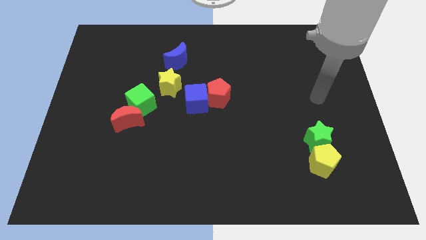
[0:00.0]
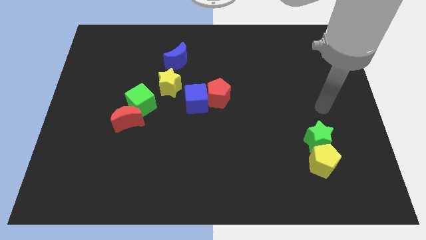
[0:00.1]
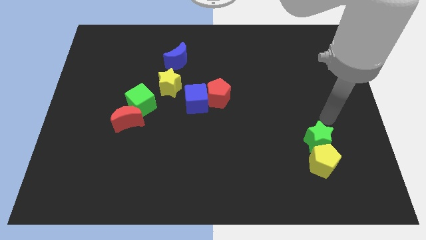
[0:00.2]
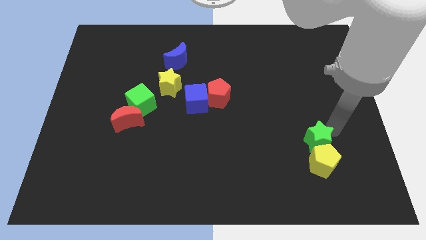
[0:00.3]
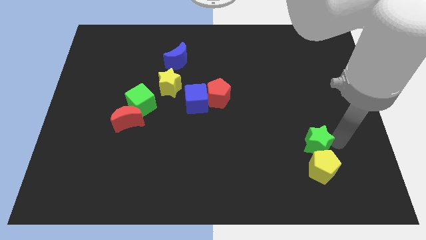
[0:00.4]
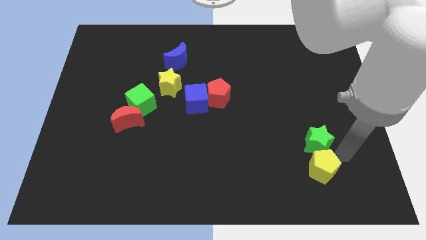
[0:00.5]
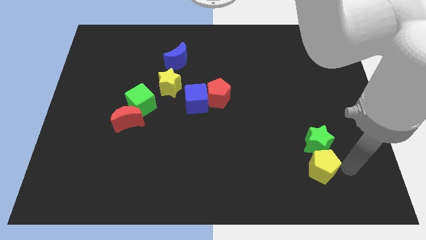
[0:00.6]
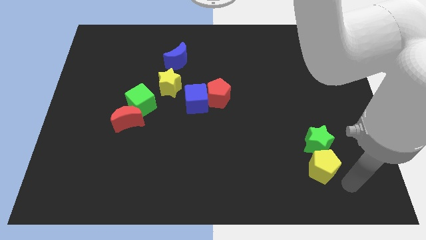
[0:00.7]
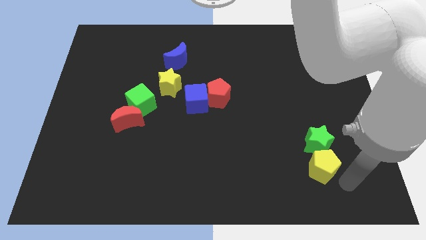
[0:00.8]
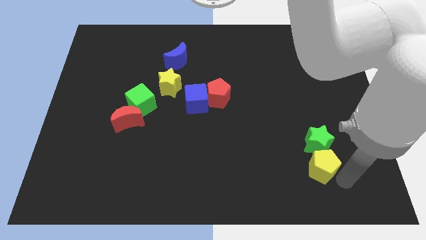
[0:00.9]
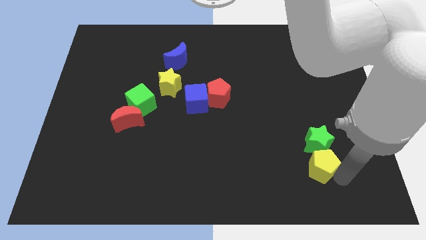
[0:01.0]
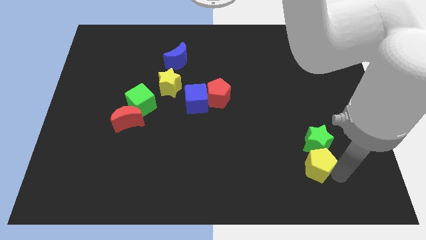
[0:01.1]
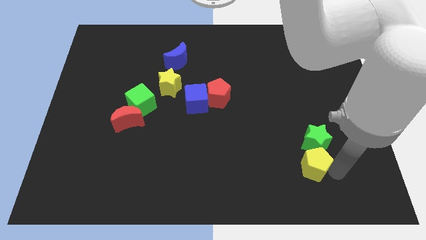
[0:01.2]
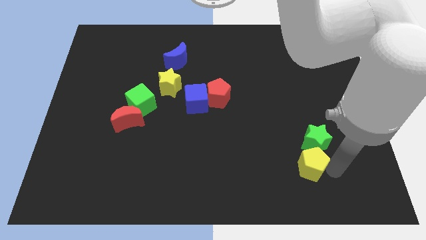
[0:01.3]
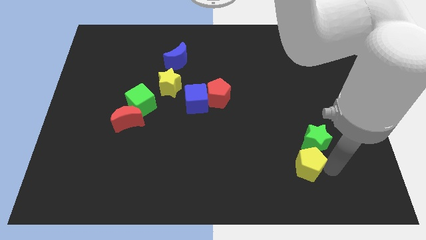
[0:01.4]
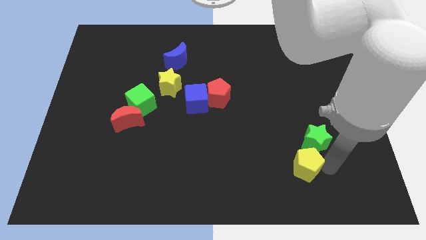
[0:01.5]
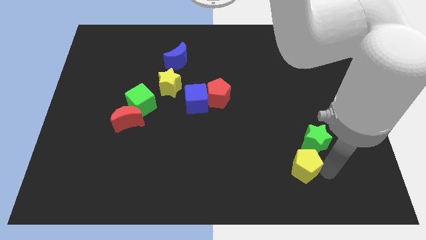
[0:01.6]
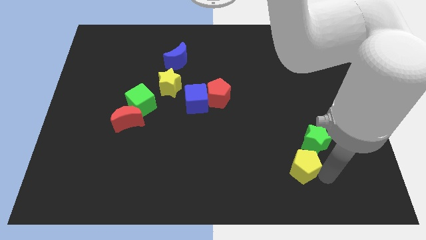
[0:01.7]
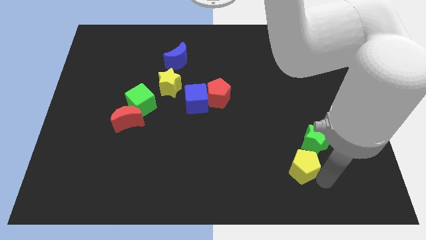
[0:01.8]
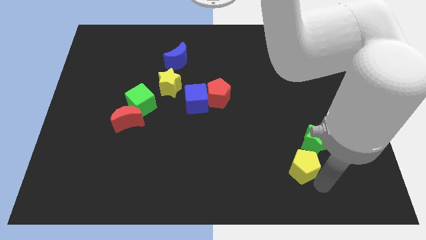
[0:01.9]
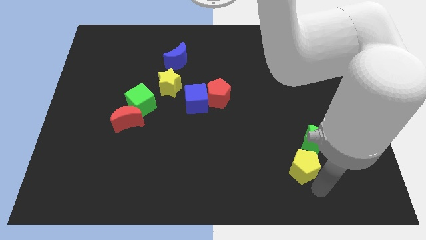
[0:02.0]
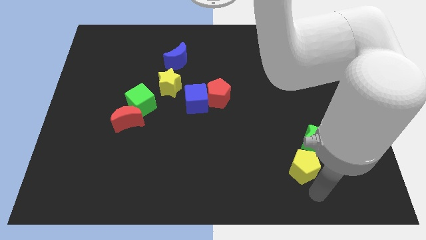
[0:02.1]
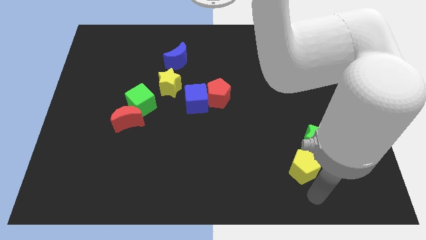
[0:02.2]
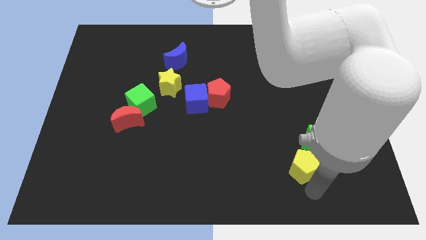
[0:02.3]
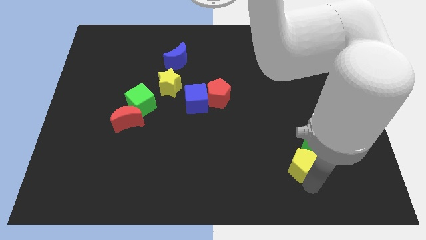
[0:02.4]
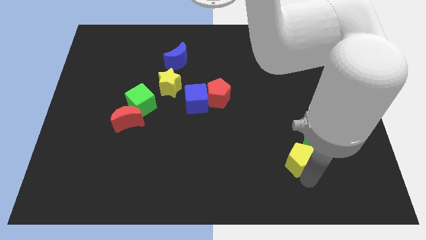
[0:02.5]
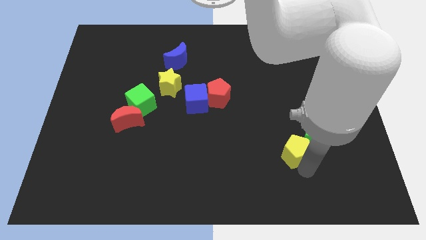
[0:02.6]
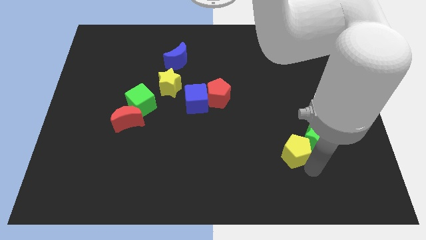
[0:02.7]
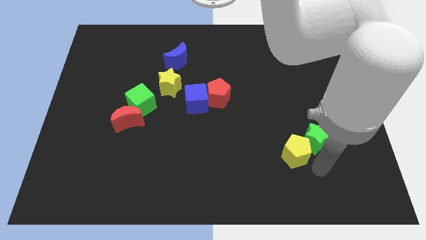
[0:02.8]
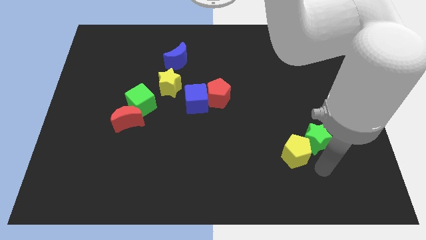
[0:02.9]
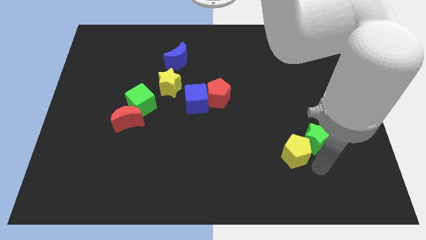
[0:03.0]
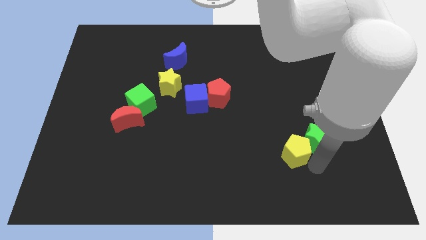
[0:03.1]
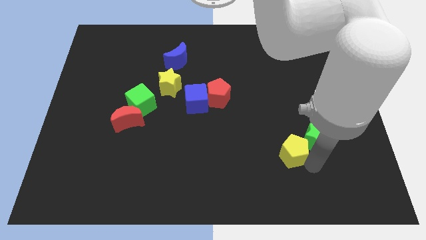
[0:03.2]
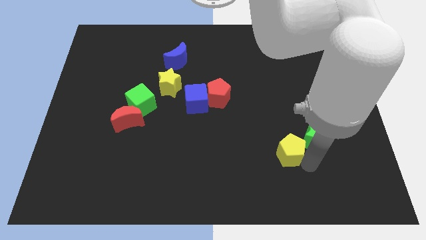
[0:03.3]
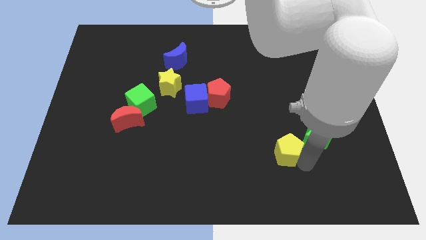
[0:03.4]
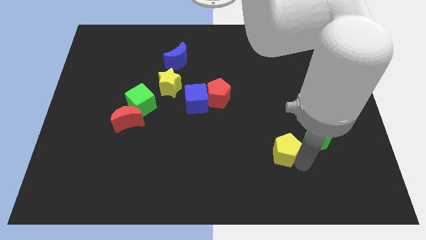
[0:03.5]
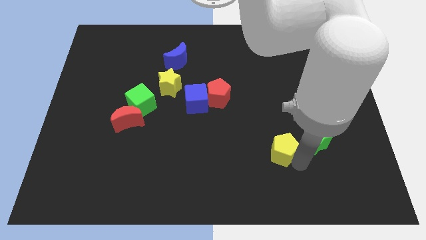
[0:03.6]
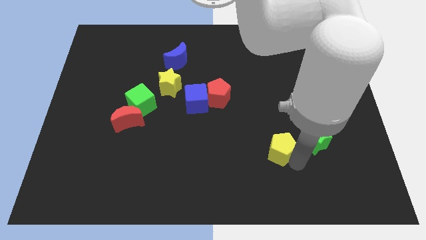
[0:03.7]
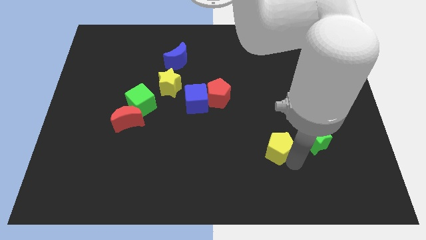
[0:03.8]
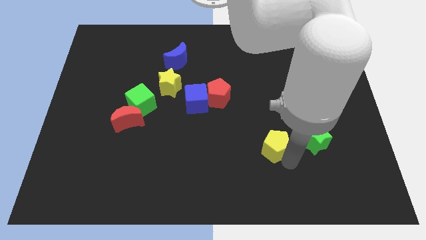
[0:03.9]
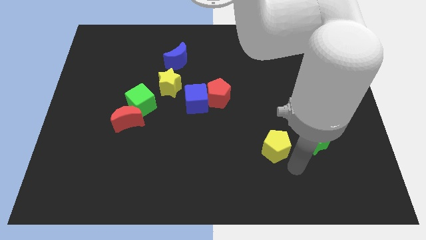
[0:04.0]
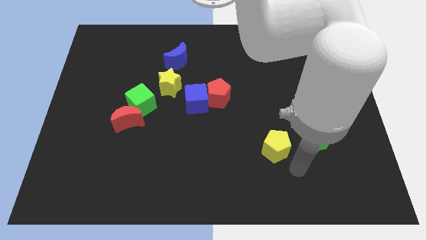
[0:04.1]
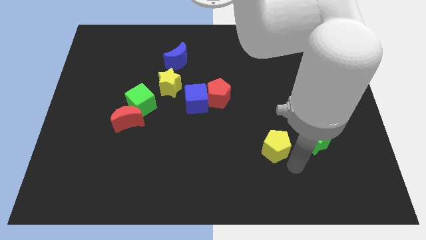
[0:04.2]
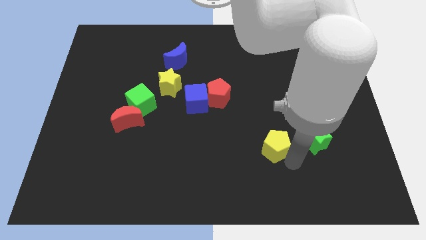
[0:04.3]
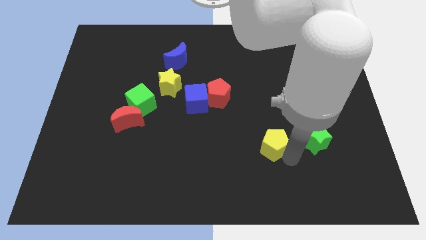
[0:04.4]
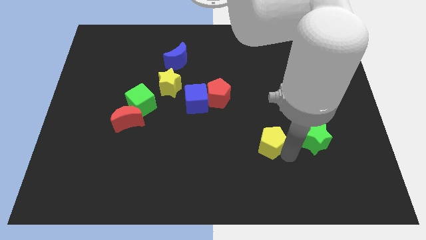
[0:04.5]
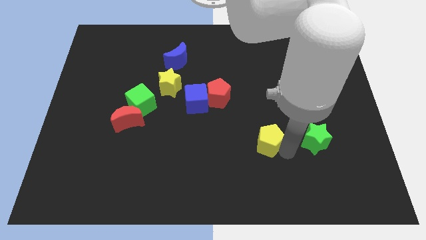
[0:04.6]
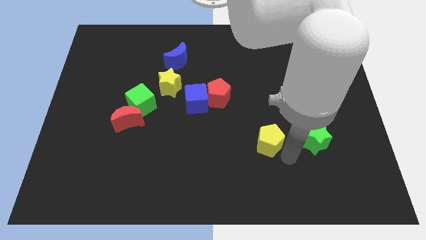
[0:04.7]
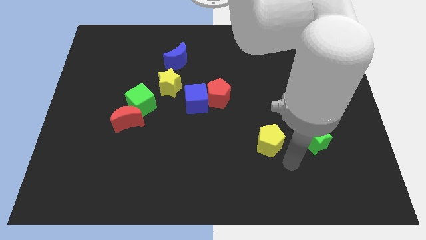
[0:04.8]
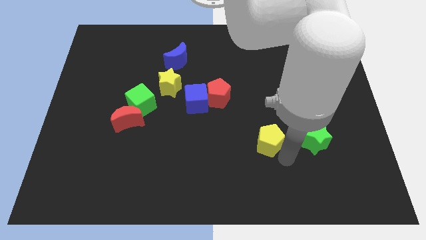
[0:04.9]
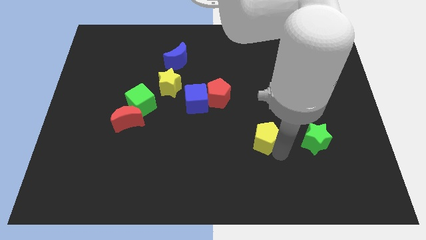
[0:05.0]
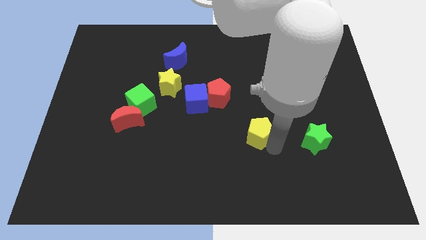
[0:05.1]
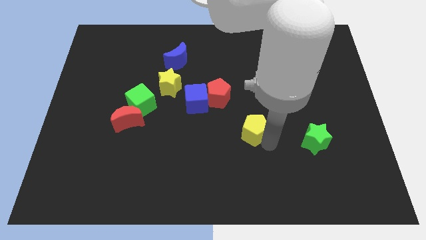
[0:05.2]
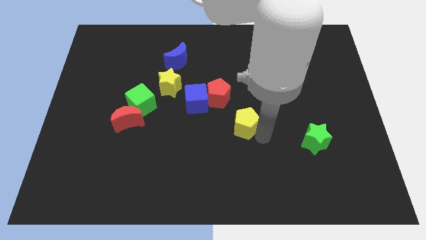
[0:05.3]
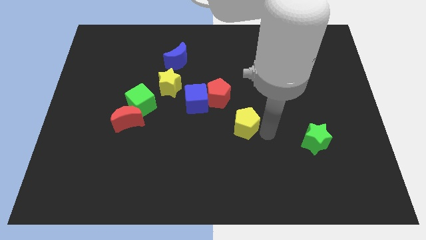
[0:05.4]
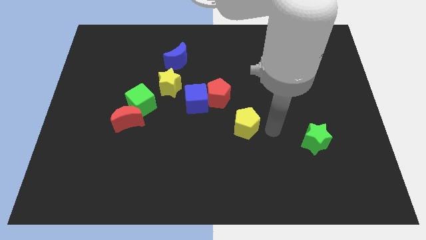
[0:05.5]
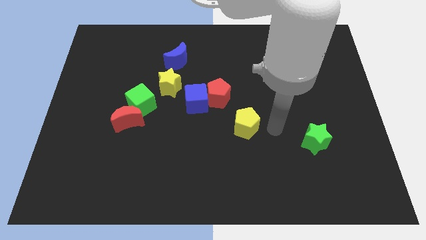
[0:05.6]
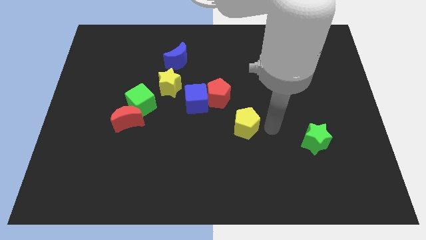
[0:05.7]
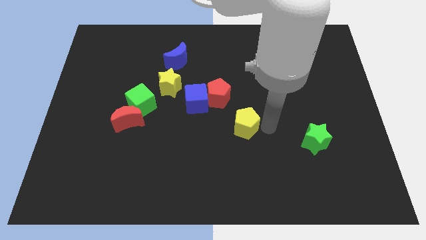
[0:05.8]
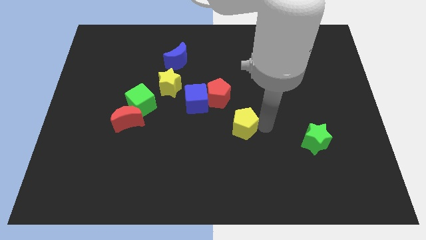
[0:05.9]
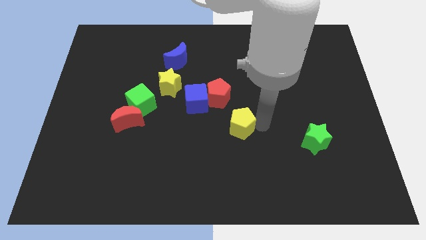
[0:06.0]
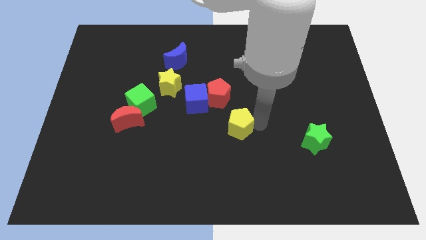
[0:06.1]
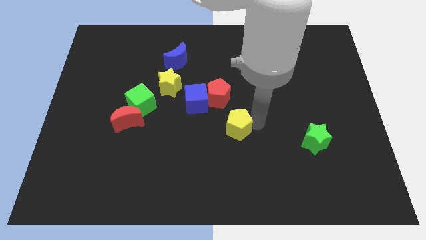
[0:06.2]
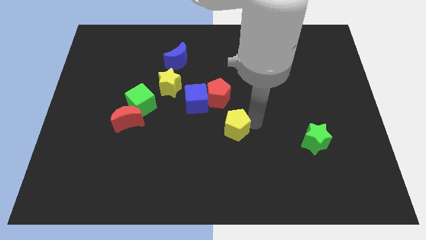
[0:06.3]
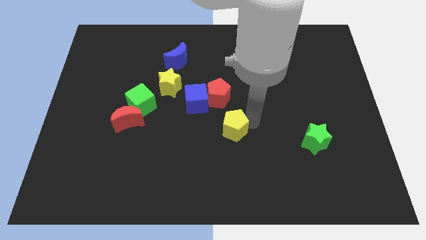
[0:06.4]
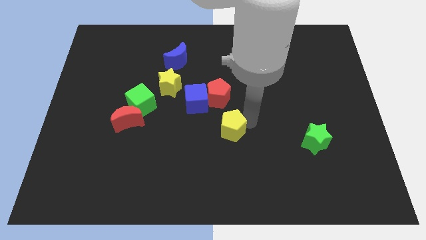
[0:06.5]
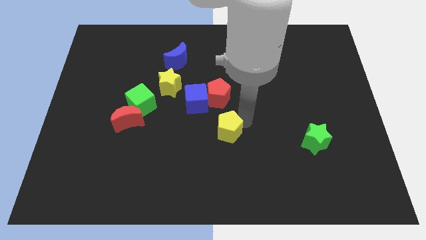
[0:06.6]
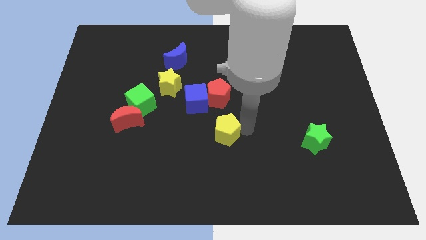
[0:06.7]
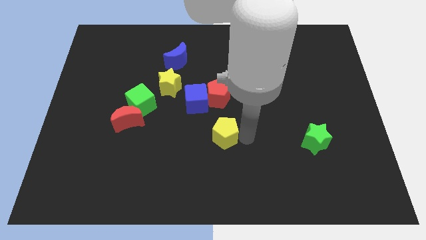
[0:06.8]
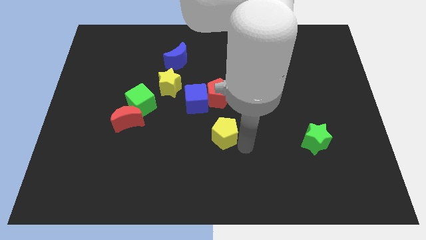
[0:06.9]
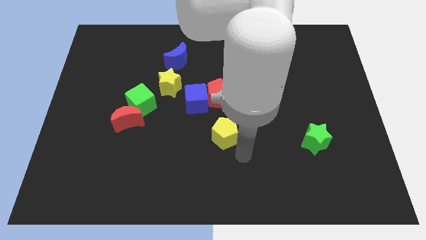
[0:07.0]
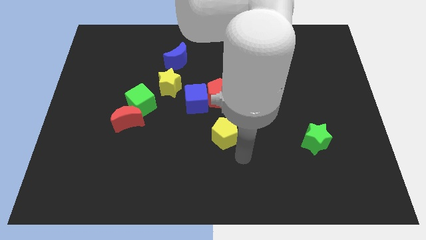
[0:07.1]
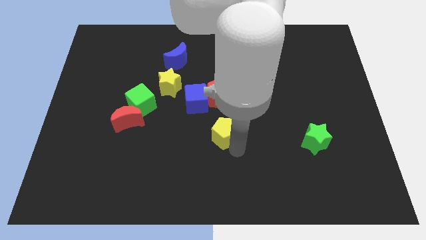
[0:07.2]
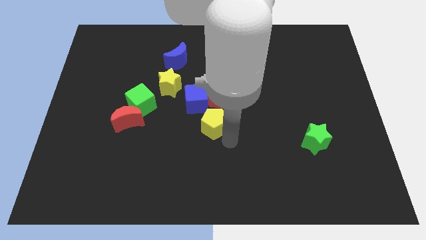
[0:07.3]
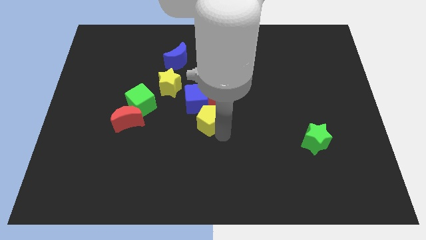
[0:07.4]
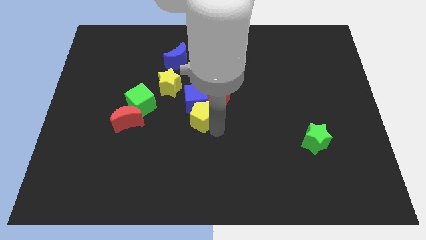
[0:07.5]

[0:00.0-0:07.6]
put the yellow pentagon towards the blue cube
